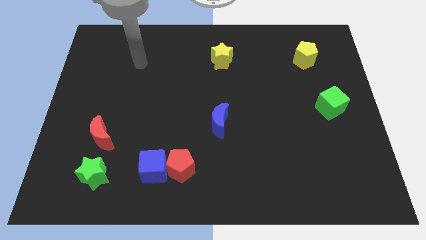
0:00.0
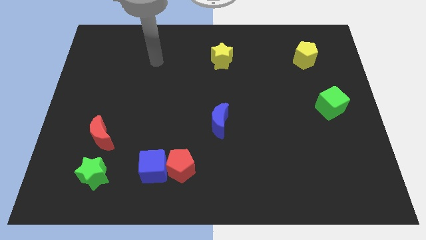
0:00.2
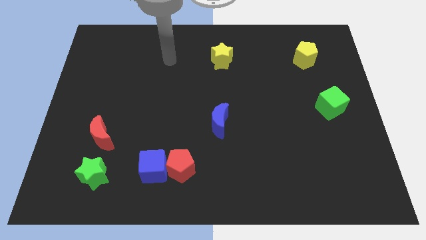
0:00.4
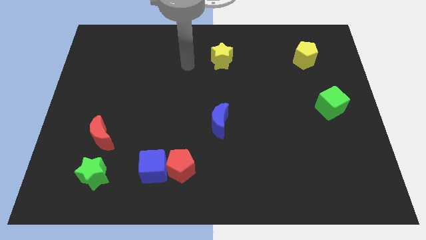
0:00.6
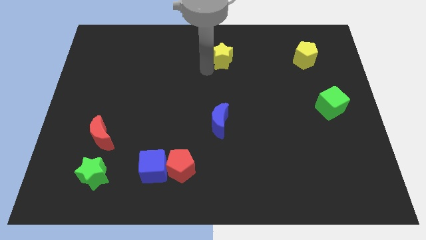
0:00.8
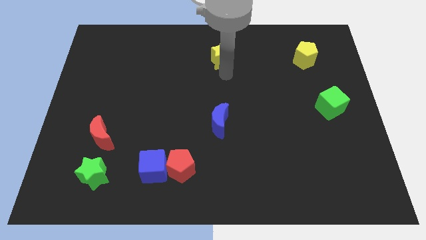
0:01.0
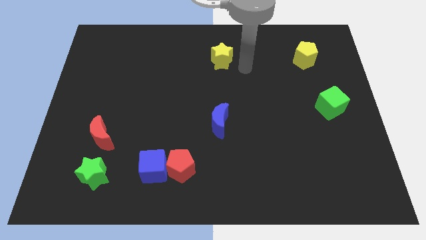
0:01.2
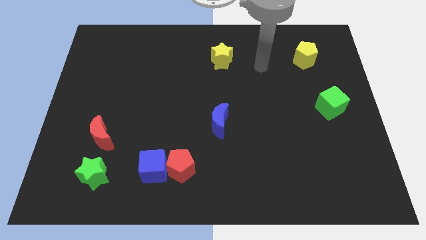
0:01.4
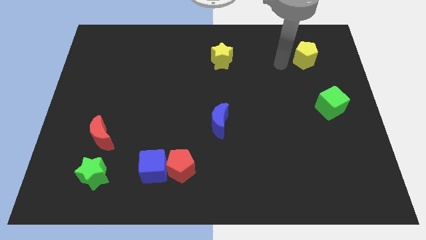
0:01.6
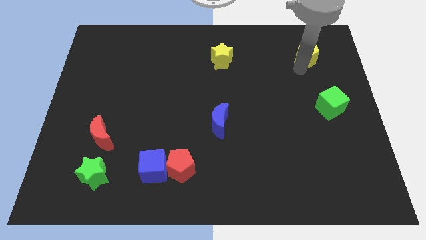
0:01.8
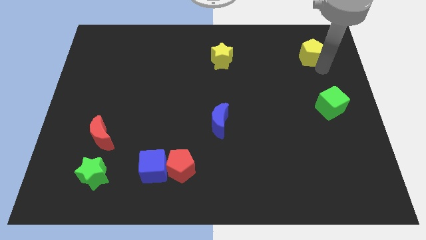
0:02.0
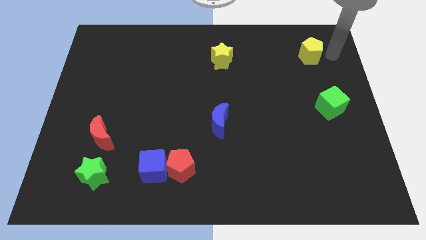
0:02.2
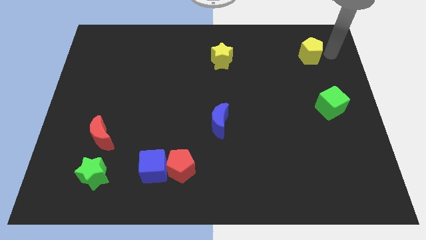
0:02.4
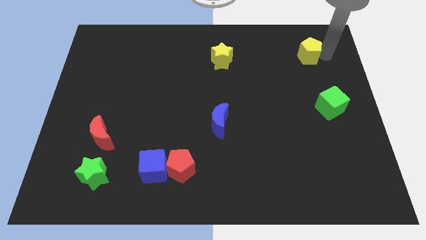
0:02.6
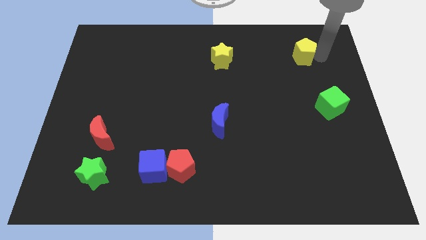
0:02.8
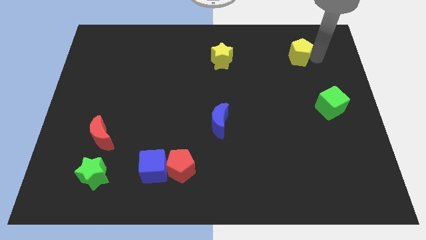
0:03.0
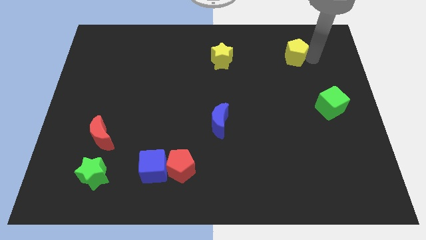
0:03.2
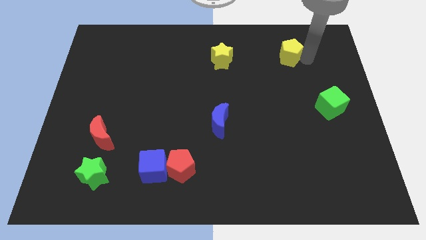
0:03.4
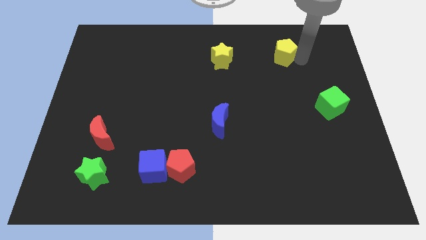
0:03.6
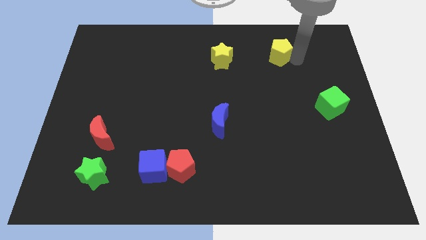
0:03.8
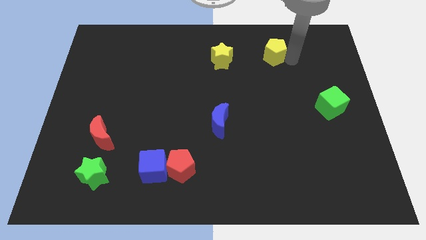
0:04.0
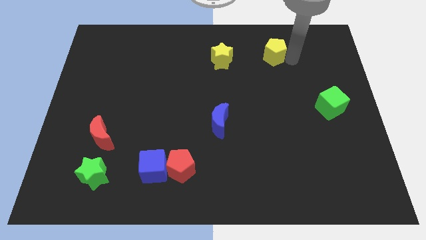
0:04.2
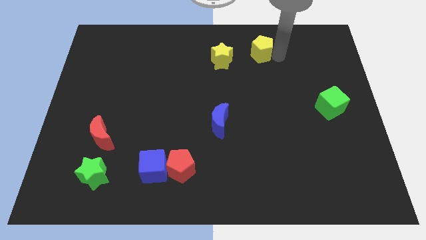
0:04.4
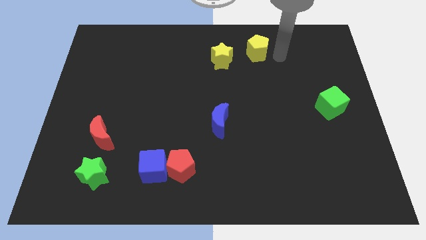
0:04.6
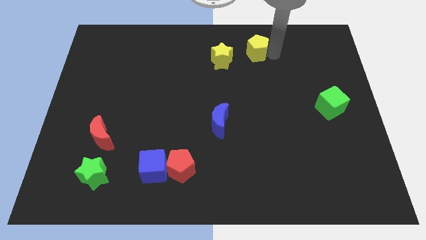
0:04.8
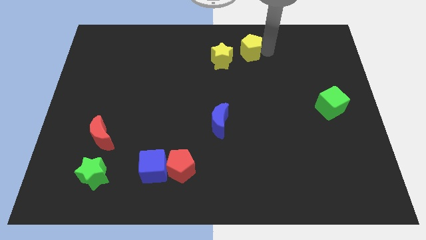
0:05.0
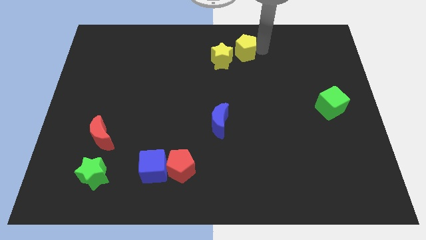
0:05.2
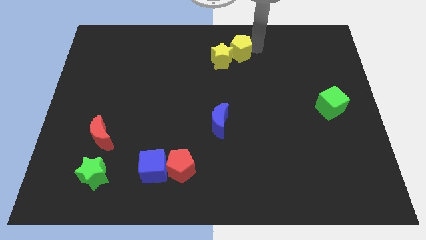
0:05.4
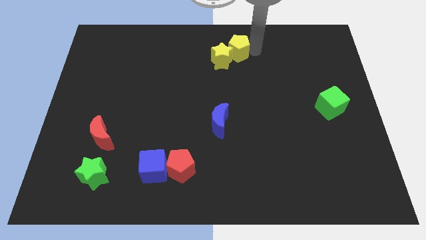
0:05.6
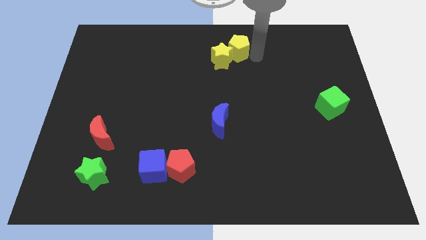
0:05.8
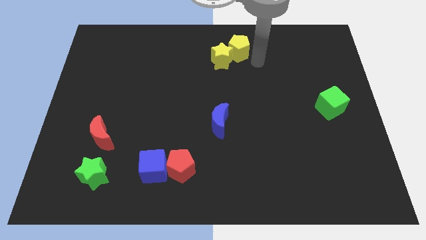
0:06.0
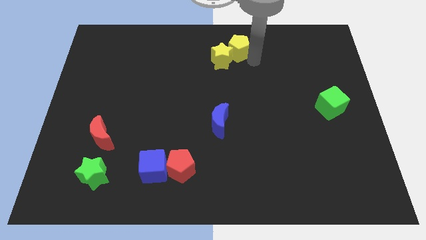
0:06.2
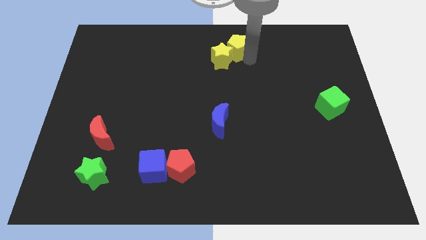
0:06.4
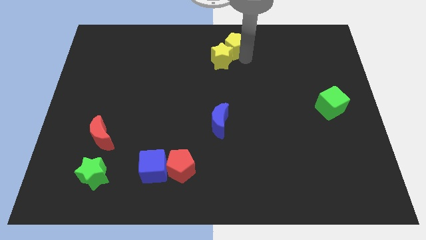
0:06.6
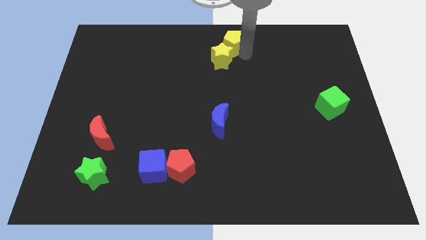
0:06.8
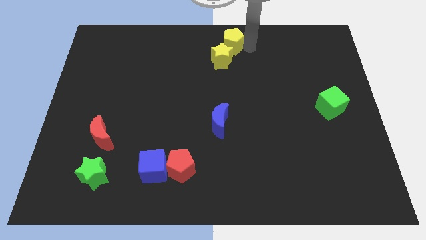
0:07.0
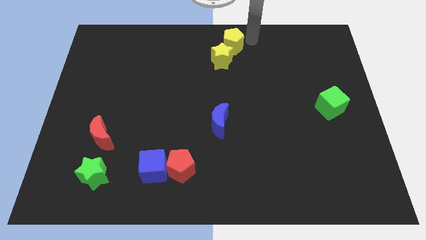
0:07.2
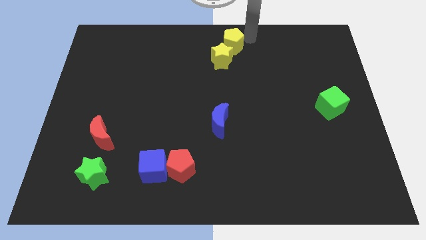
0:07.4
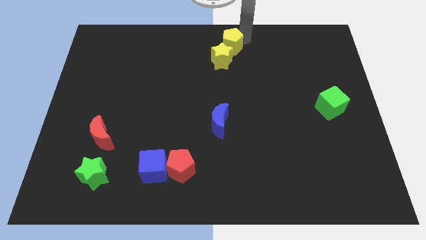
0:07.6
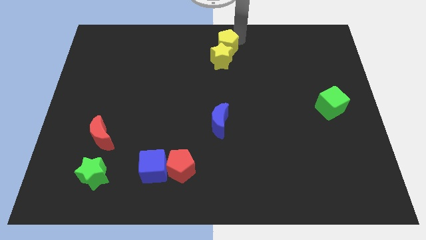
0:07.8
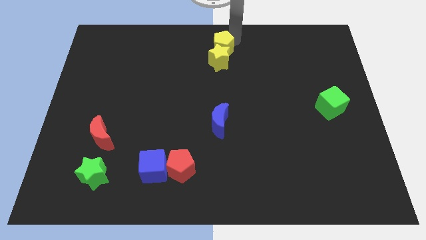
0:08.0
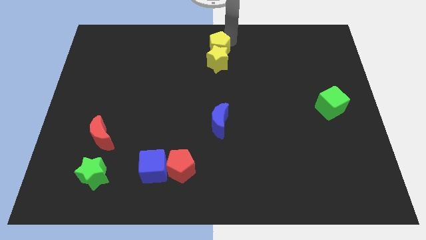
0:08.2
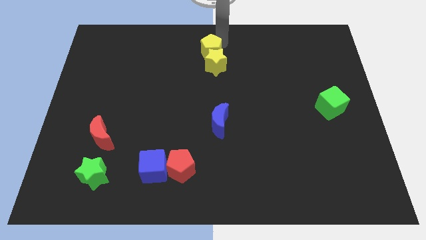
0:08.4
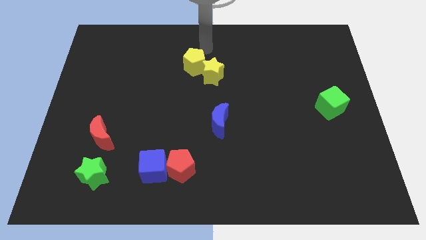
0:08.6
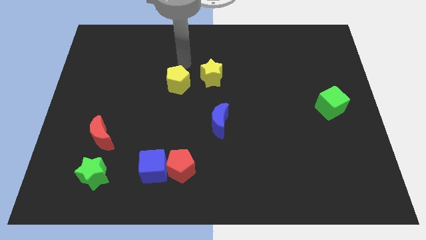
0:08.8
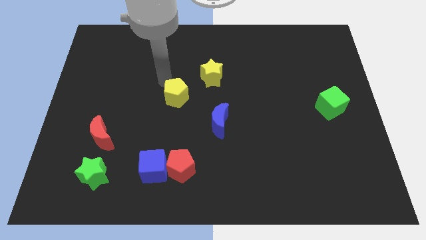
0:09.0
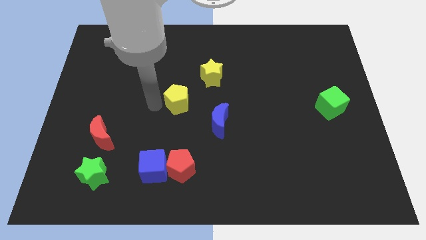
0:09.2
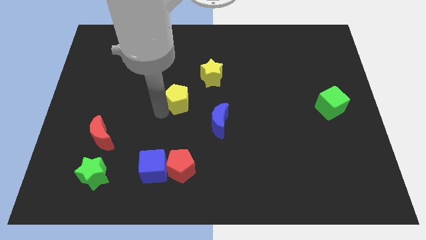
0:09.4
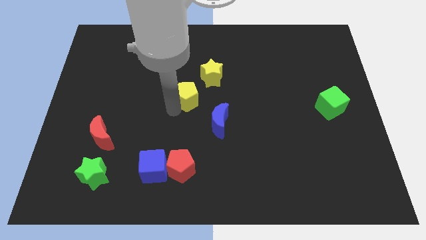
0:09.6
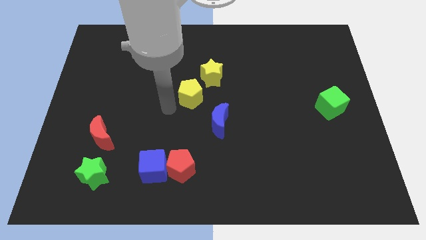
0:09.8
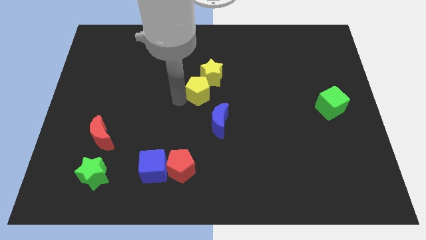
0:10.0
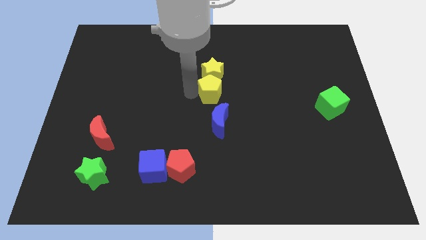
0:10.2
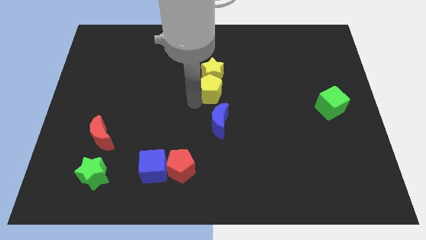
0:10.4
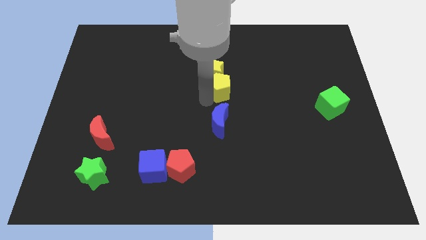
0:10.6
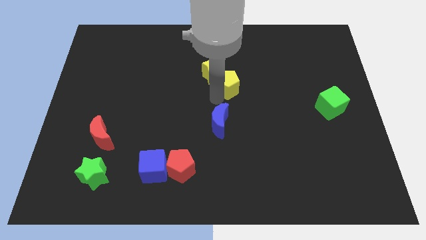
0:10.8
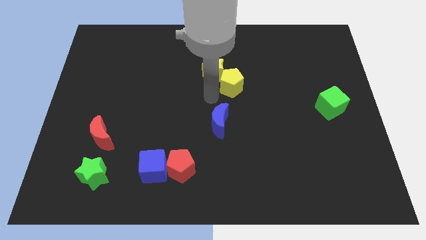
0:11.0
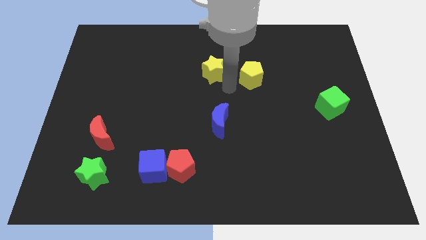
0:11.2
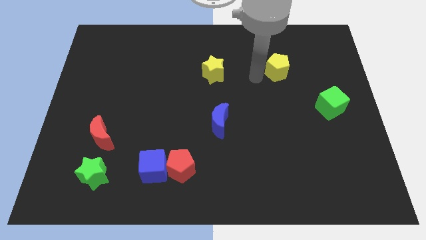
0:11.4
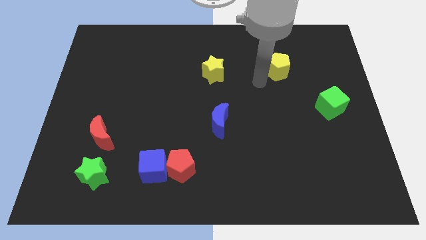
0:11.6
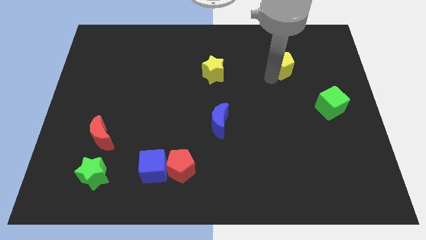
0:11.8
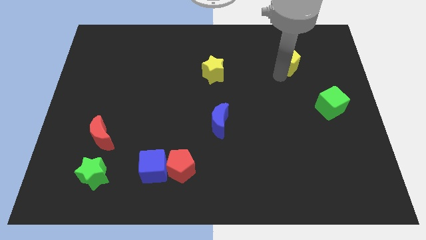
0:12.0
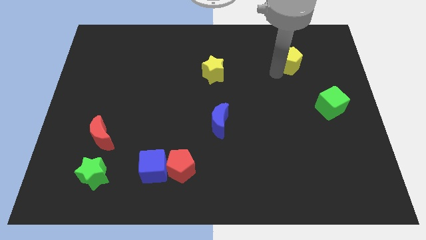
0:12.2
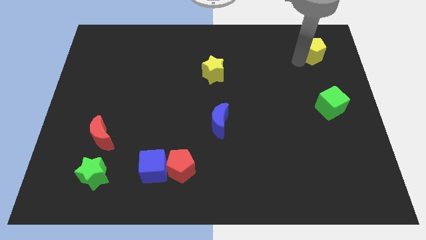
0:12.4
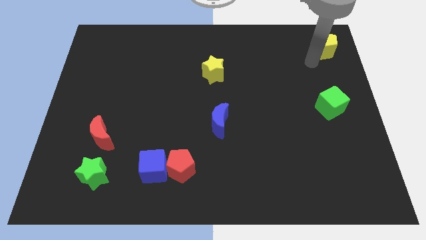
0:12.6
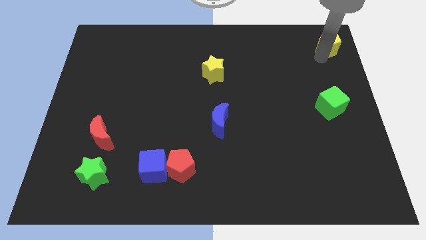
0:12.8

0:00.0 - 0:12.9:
slide the yellow pentagon to the upper right corner
